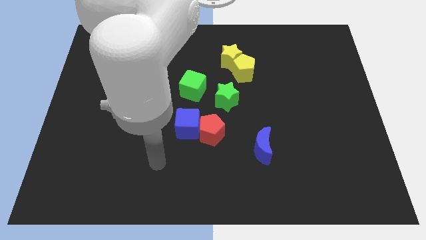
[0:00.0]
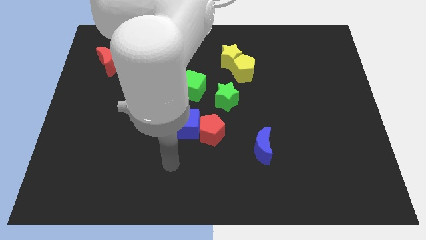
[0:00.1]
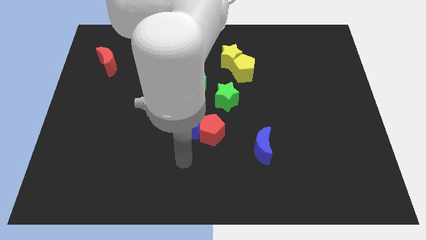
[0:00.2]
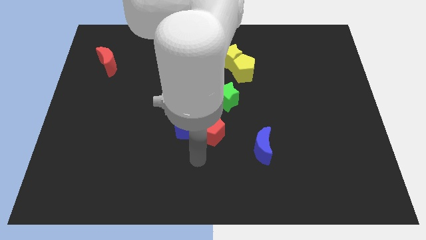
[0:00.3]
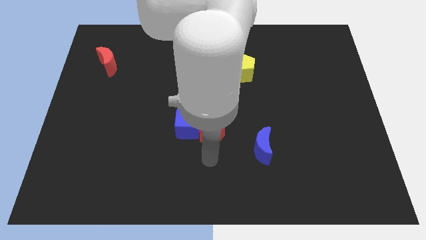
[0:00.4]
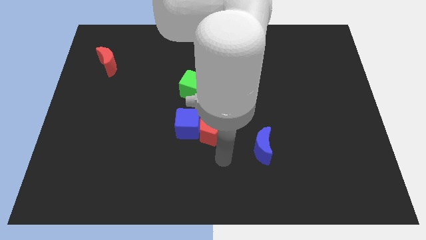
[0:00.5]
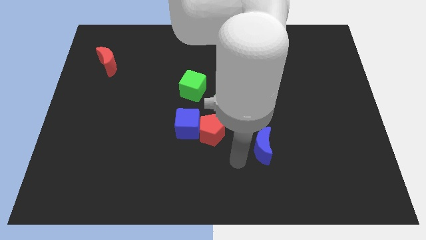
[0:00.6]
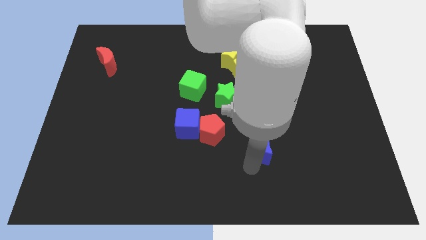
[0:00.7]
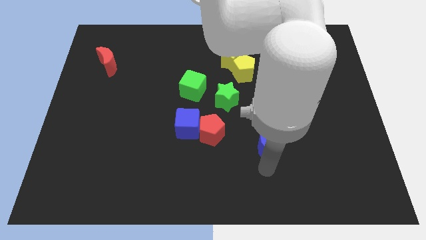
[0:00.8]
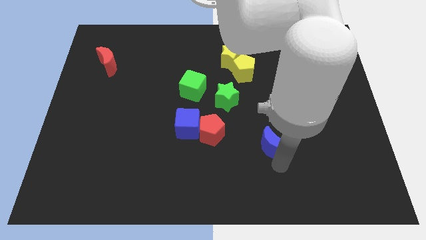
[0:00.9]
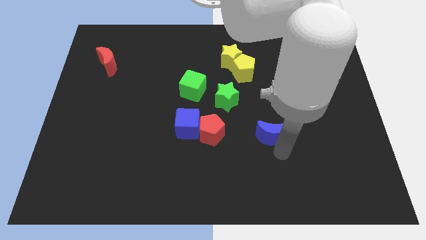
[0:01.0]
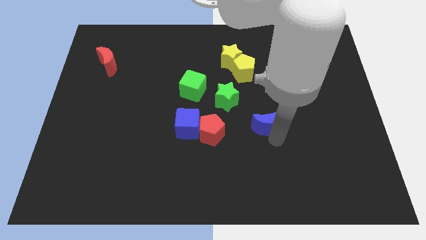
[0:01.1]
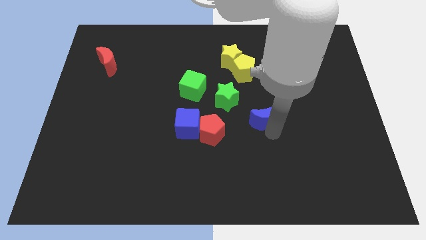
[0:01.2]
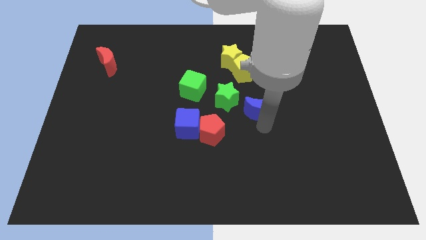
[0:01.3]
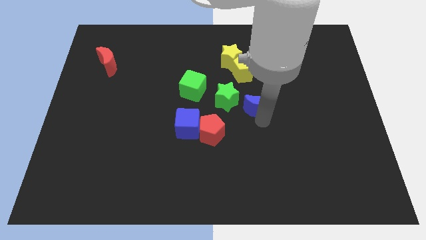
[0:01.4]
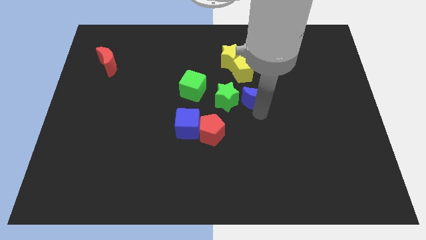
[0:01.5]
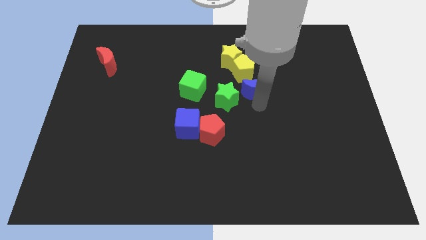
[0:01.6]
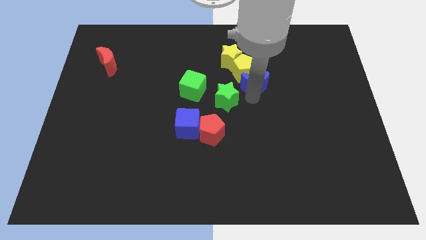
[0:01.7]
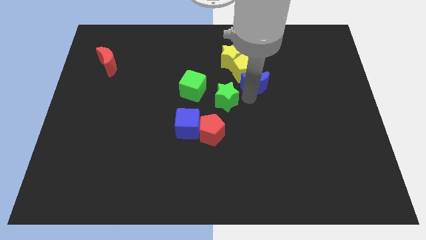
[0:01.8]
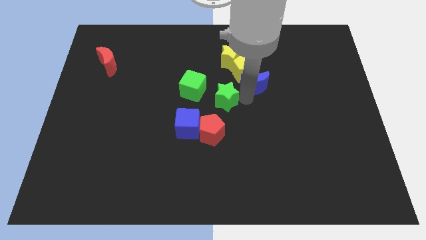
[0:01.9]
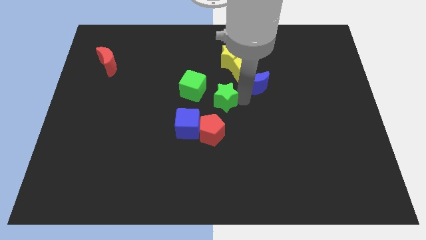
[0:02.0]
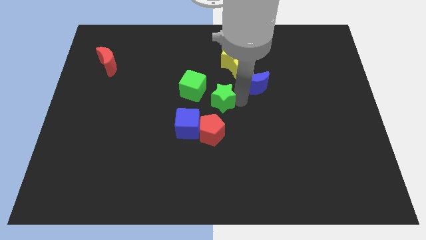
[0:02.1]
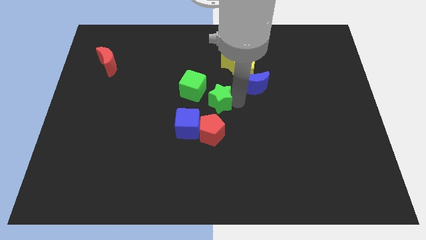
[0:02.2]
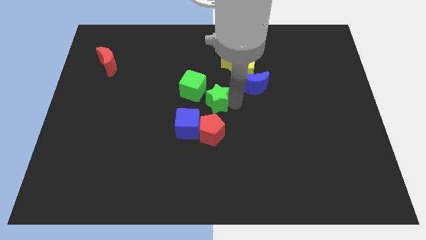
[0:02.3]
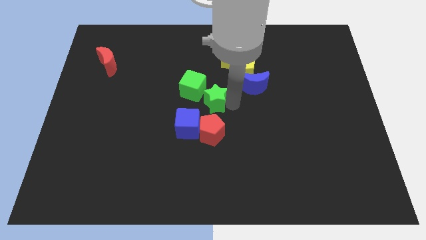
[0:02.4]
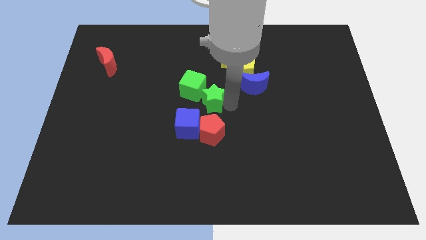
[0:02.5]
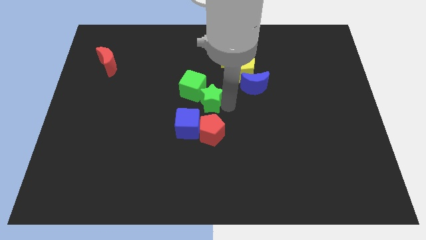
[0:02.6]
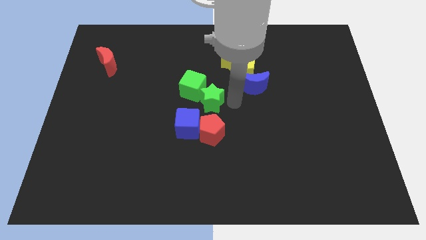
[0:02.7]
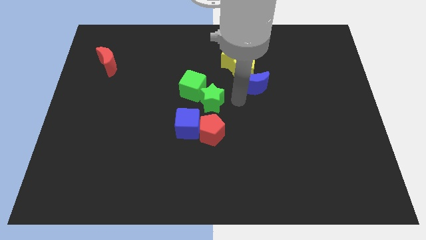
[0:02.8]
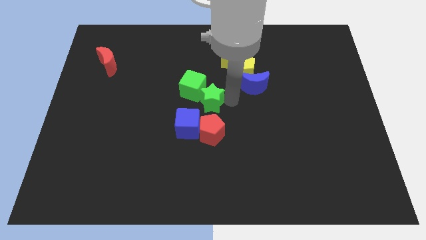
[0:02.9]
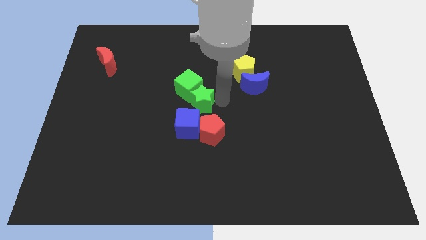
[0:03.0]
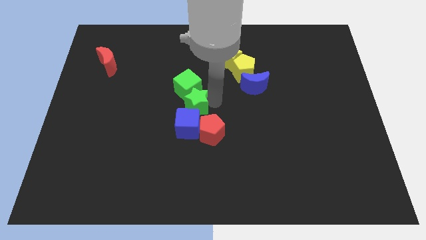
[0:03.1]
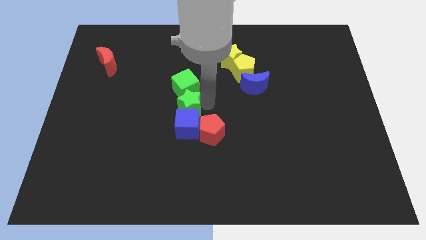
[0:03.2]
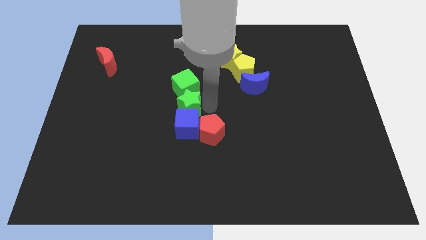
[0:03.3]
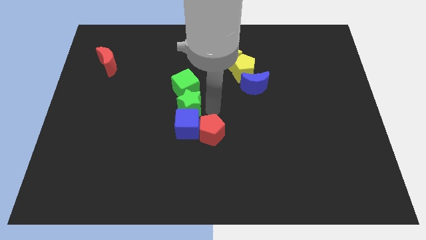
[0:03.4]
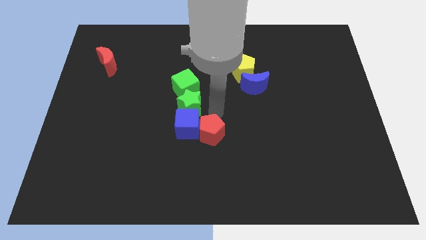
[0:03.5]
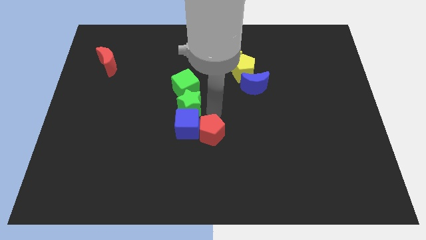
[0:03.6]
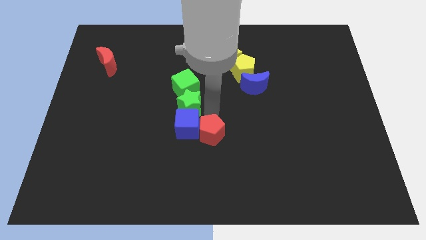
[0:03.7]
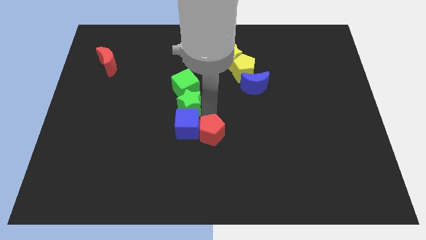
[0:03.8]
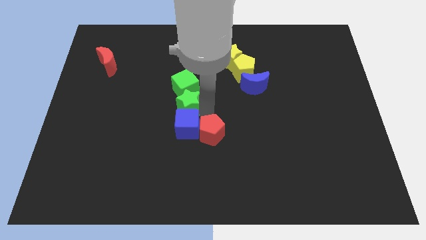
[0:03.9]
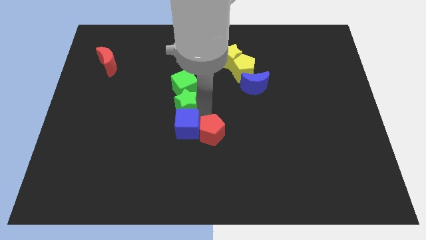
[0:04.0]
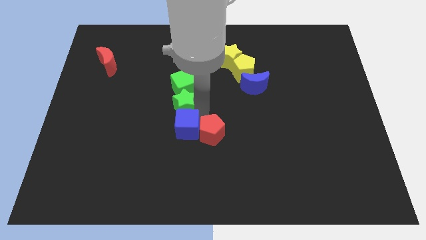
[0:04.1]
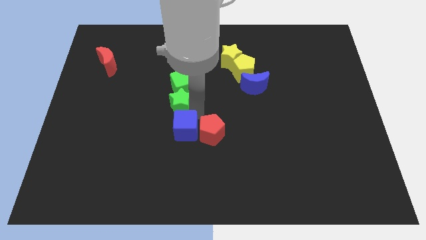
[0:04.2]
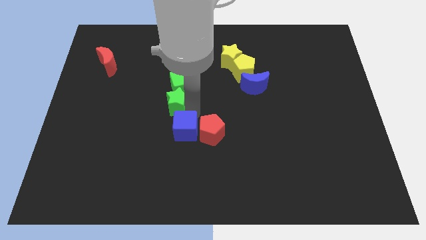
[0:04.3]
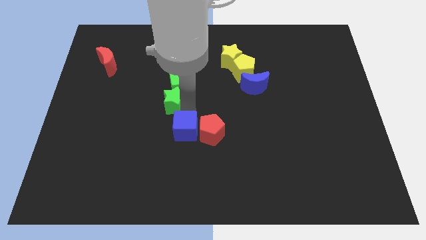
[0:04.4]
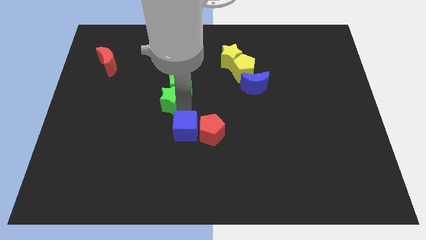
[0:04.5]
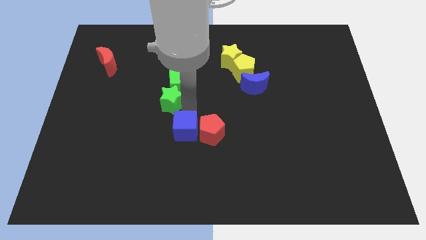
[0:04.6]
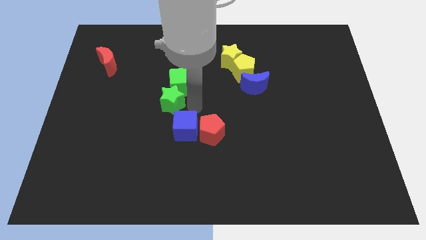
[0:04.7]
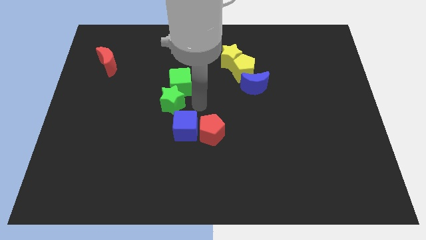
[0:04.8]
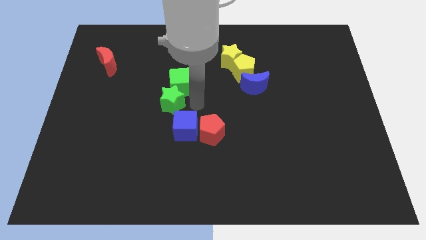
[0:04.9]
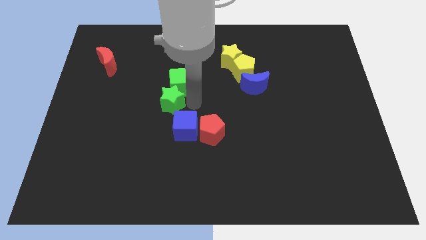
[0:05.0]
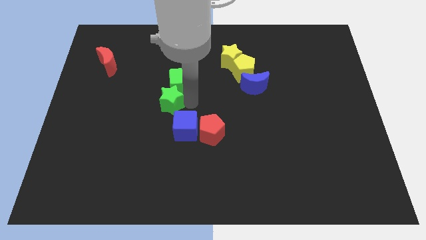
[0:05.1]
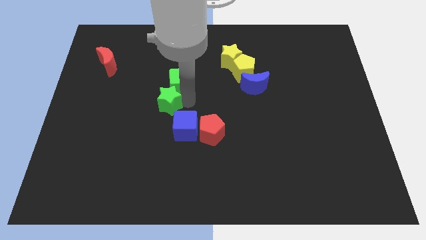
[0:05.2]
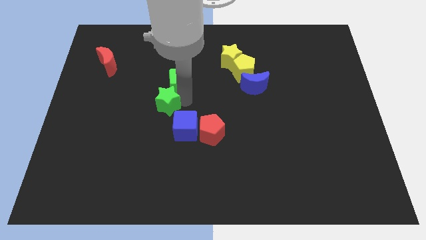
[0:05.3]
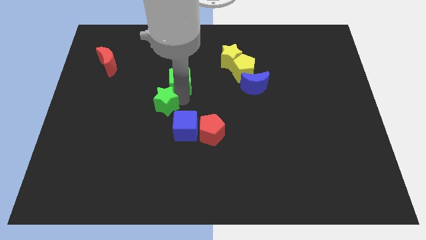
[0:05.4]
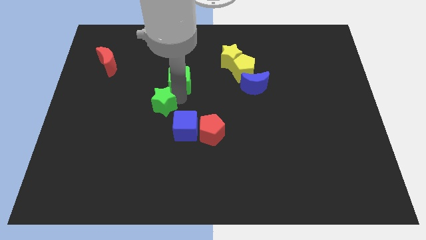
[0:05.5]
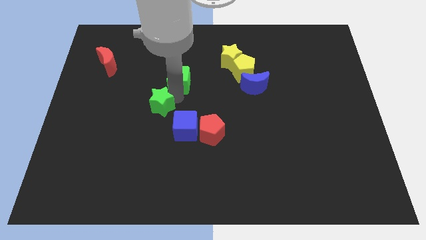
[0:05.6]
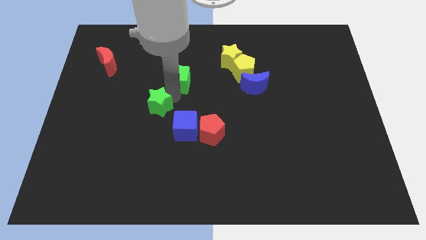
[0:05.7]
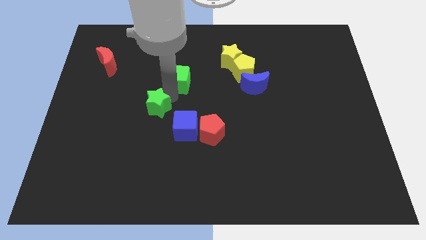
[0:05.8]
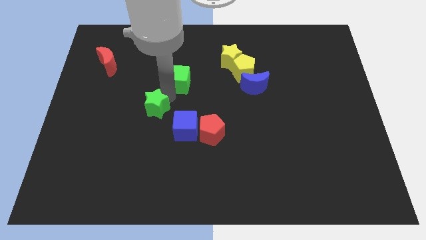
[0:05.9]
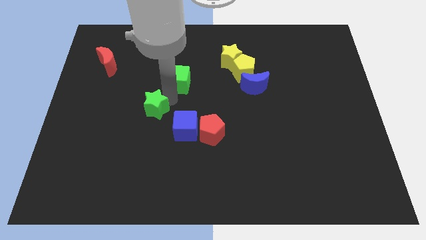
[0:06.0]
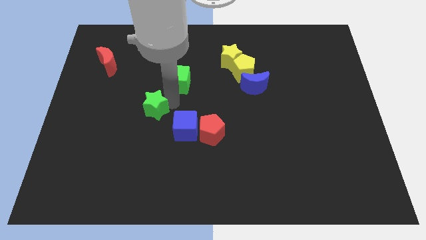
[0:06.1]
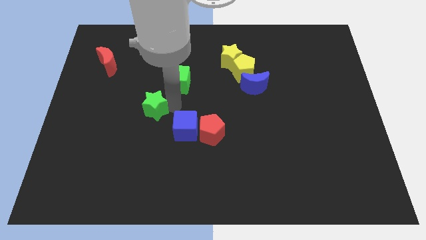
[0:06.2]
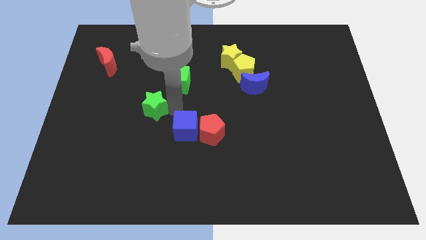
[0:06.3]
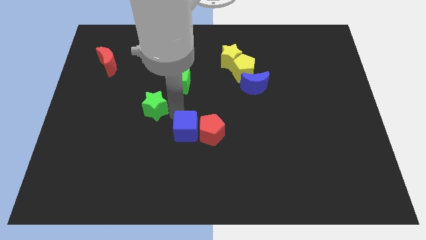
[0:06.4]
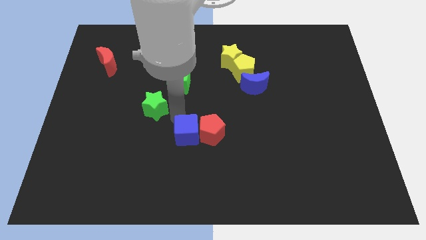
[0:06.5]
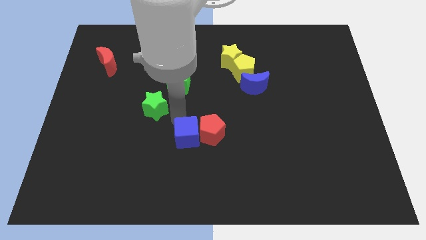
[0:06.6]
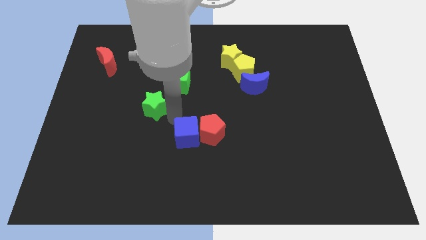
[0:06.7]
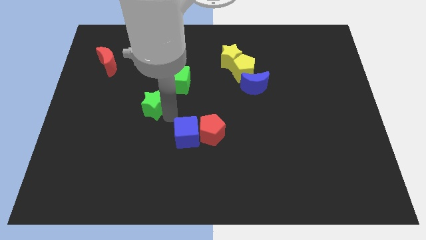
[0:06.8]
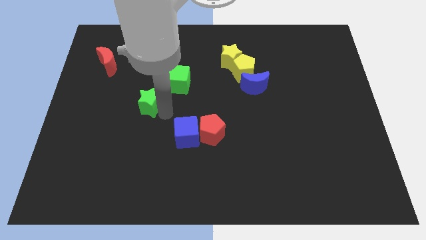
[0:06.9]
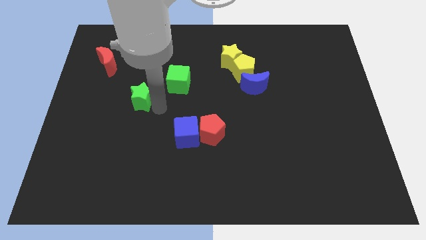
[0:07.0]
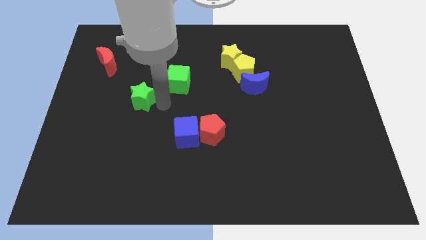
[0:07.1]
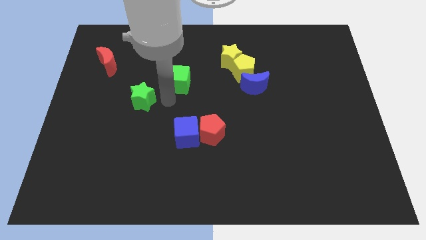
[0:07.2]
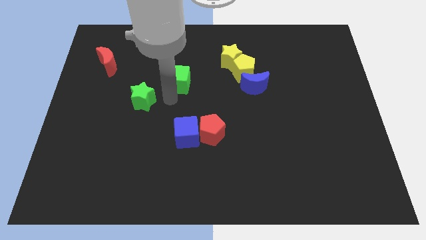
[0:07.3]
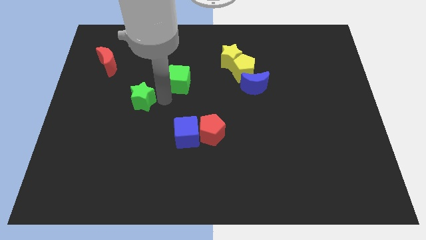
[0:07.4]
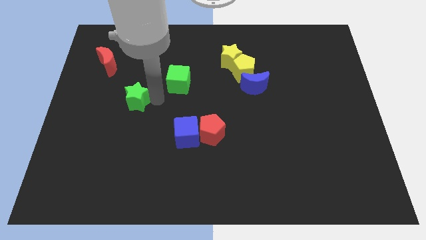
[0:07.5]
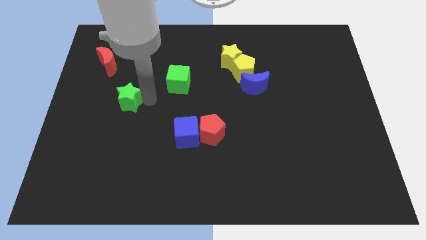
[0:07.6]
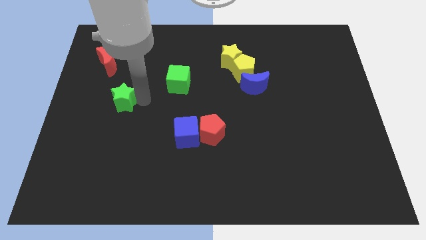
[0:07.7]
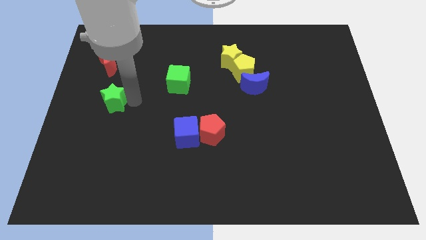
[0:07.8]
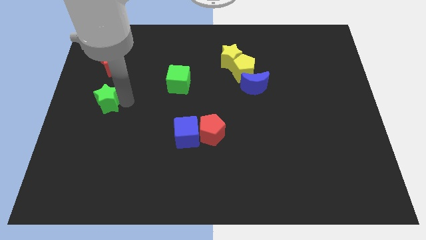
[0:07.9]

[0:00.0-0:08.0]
push the green star to the left side of the board
